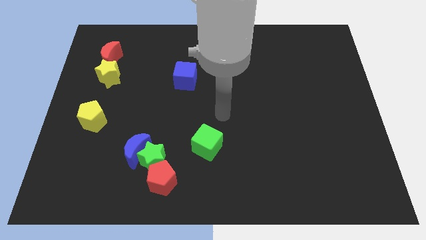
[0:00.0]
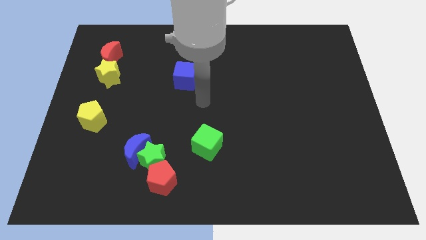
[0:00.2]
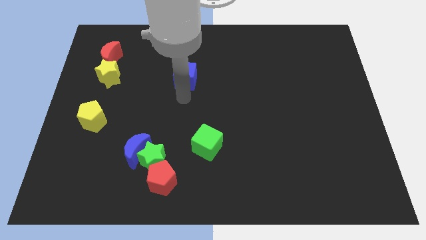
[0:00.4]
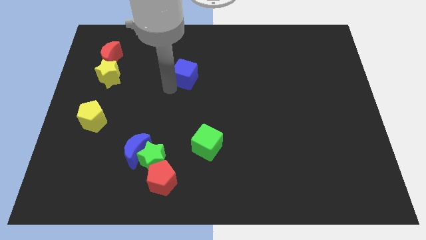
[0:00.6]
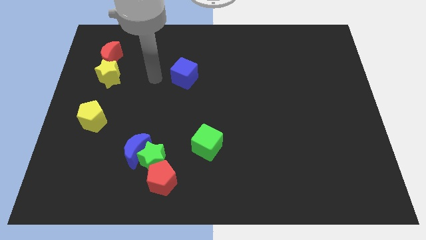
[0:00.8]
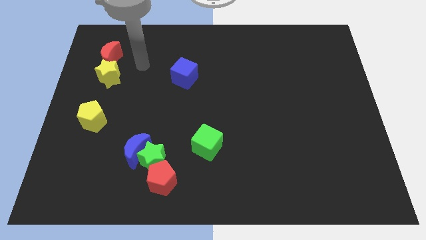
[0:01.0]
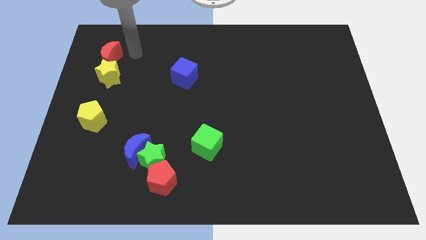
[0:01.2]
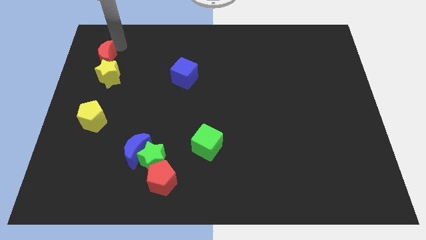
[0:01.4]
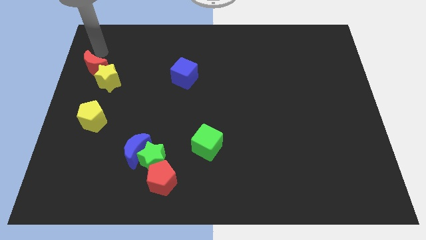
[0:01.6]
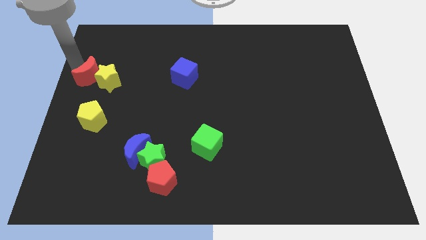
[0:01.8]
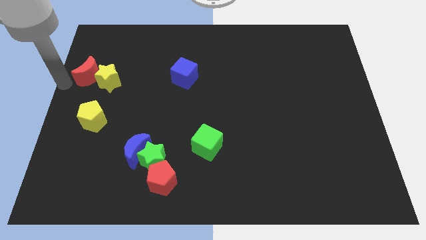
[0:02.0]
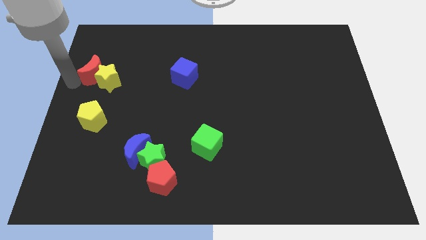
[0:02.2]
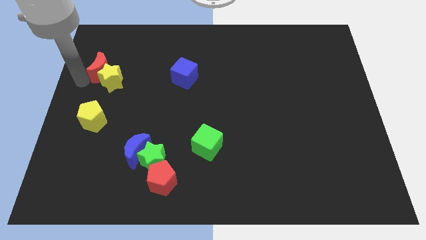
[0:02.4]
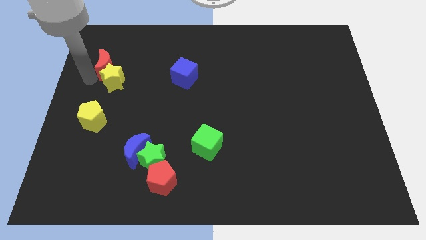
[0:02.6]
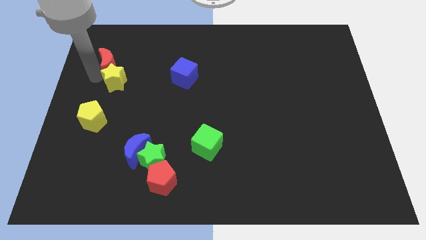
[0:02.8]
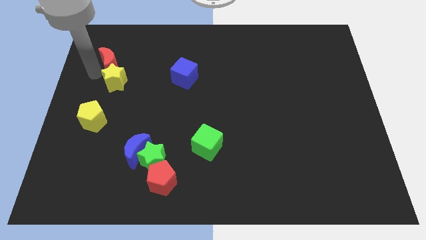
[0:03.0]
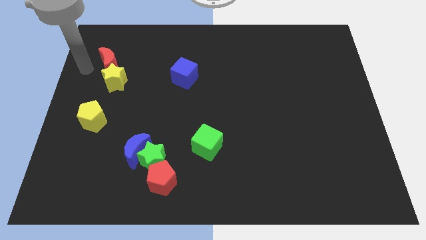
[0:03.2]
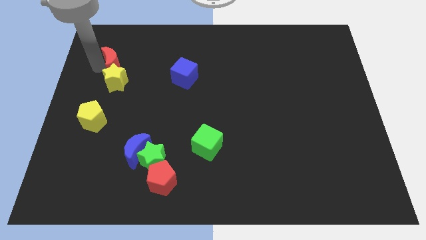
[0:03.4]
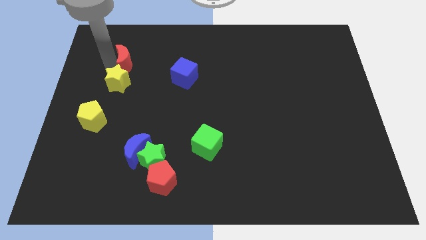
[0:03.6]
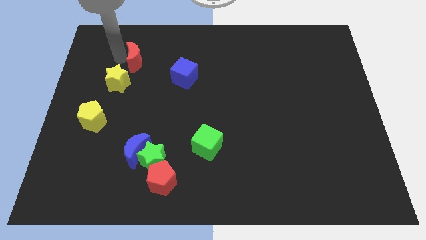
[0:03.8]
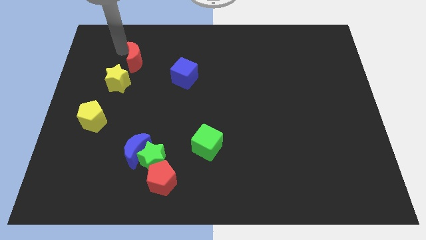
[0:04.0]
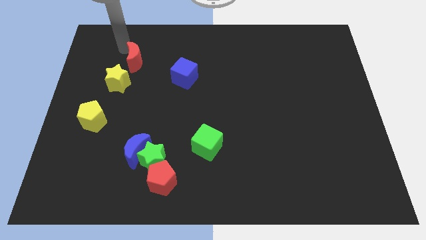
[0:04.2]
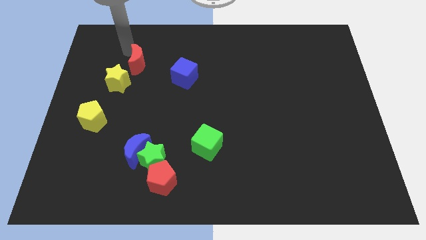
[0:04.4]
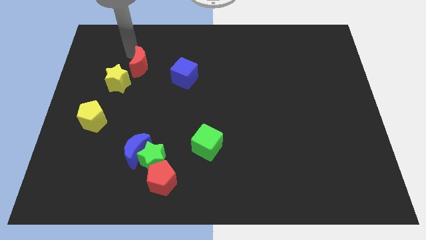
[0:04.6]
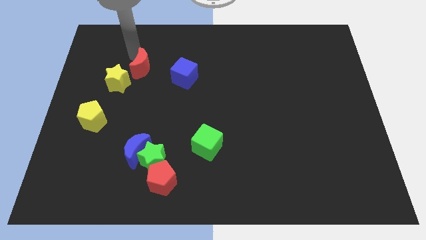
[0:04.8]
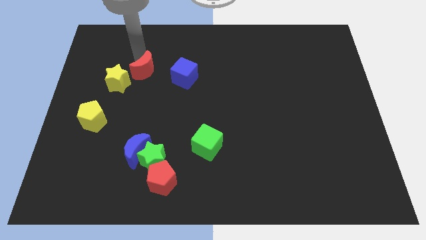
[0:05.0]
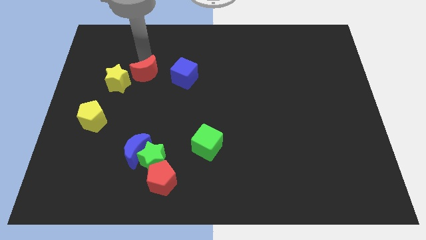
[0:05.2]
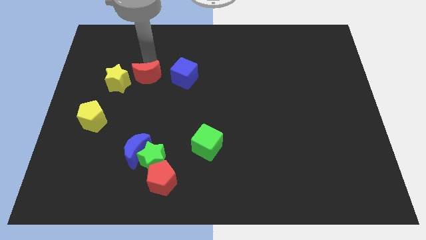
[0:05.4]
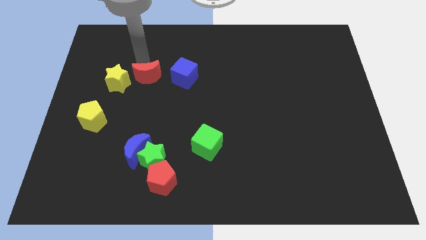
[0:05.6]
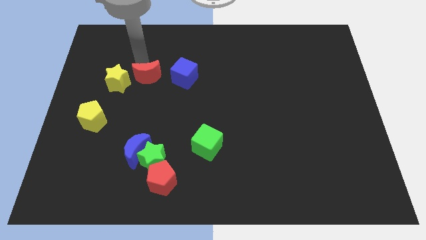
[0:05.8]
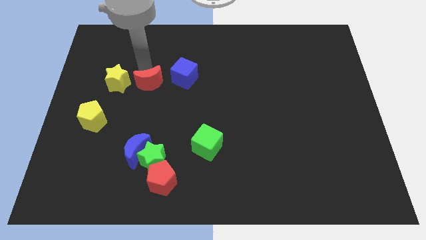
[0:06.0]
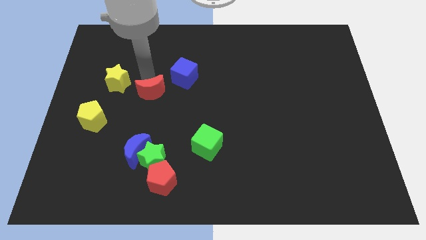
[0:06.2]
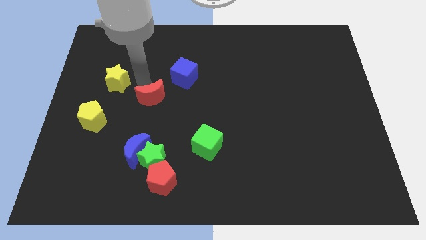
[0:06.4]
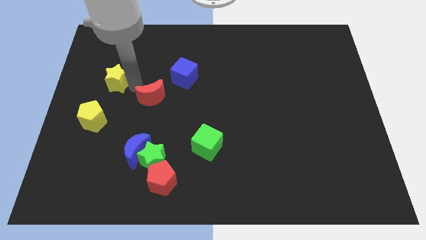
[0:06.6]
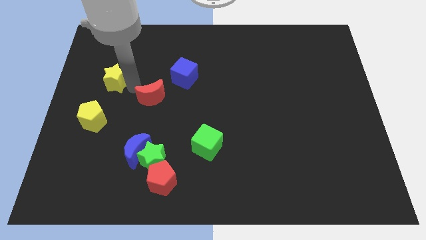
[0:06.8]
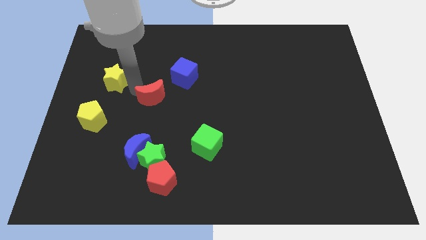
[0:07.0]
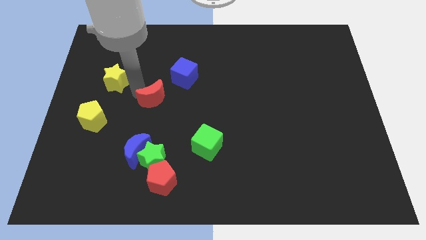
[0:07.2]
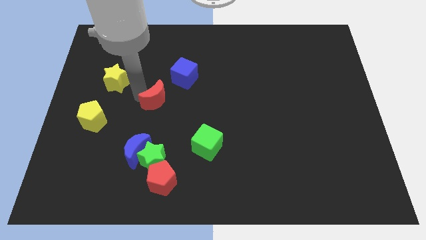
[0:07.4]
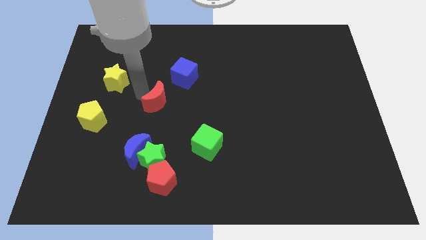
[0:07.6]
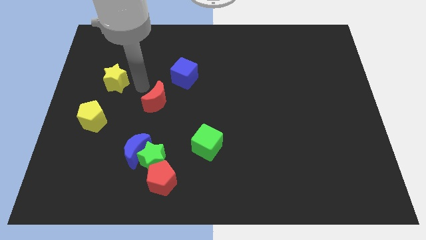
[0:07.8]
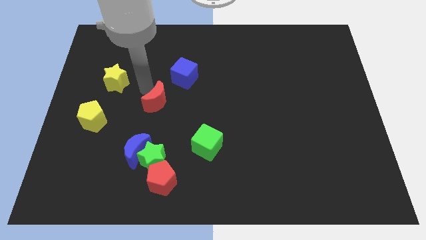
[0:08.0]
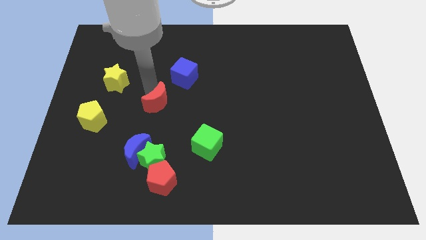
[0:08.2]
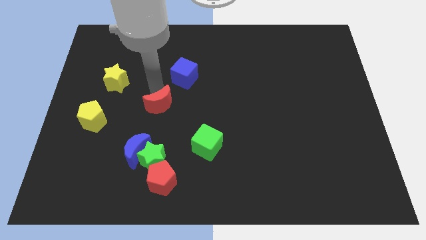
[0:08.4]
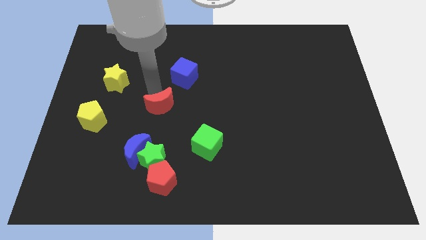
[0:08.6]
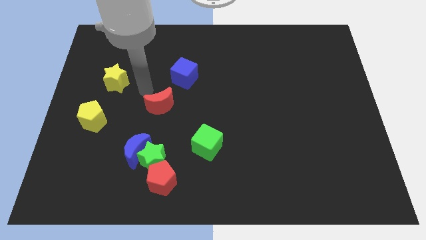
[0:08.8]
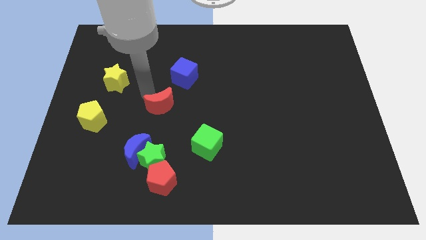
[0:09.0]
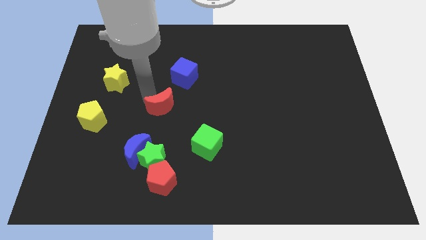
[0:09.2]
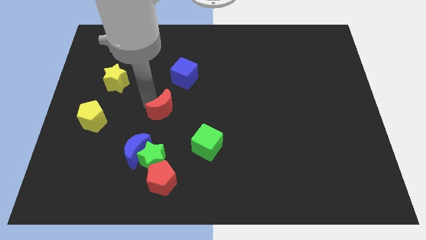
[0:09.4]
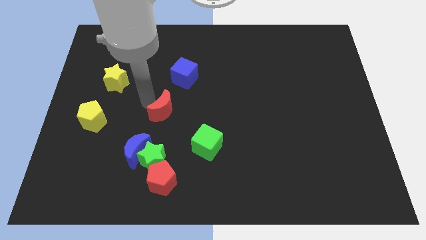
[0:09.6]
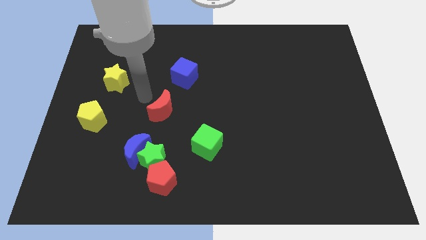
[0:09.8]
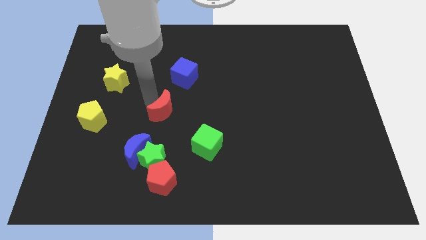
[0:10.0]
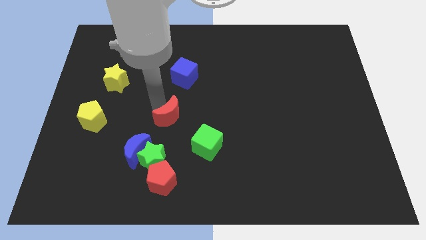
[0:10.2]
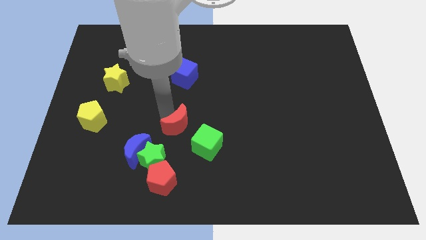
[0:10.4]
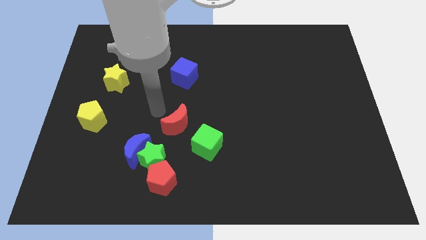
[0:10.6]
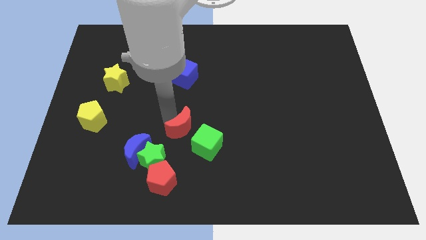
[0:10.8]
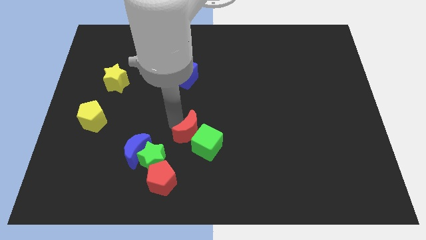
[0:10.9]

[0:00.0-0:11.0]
slide the red moon next to the green cube

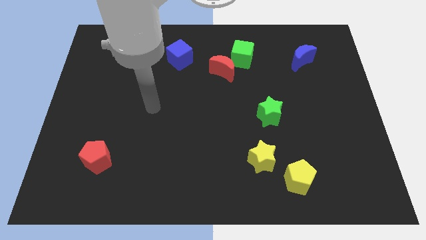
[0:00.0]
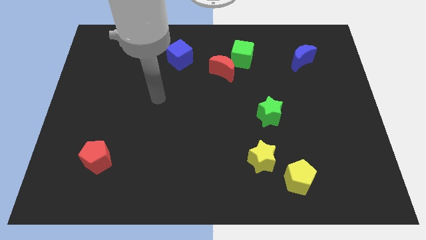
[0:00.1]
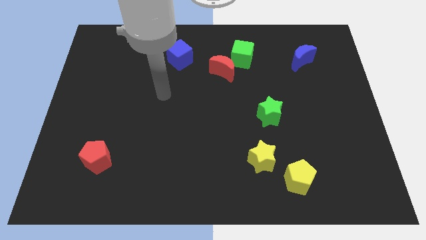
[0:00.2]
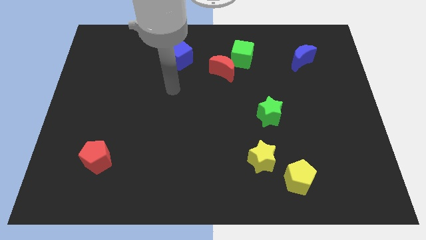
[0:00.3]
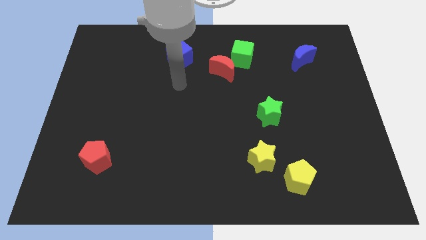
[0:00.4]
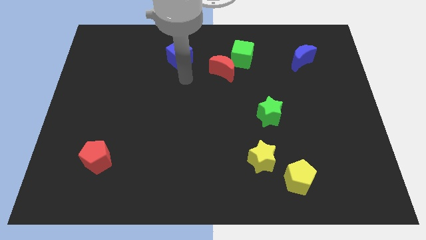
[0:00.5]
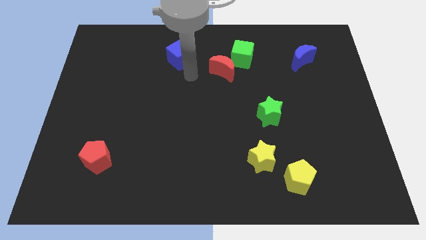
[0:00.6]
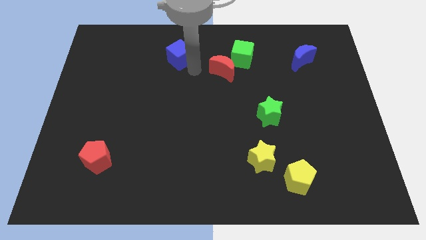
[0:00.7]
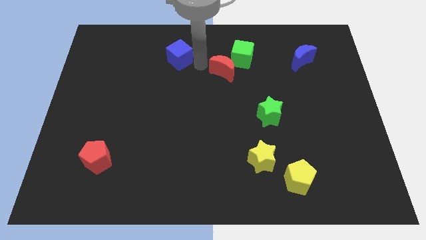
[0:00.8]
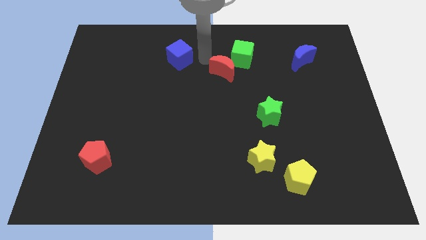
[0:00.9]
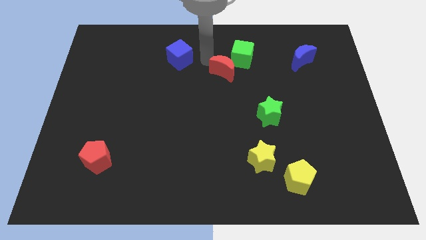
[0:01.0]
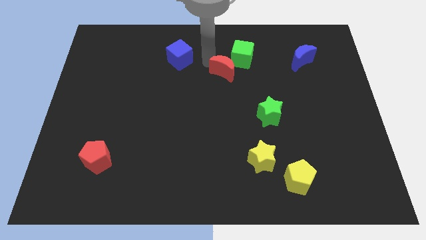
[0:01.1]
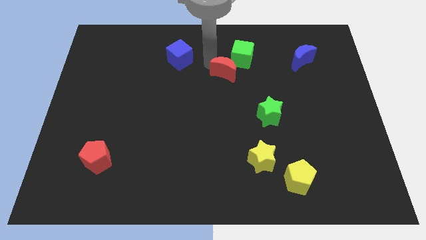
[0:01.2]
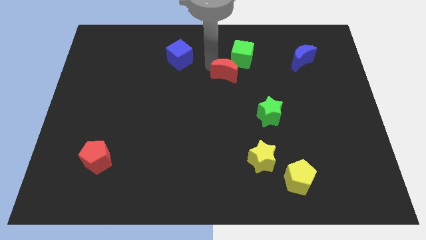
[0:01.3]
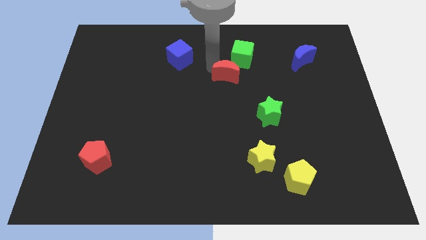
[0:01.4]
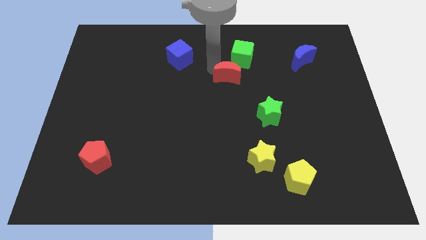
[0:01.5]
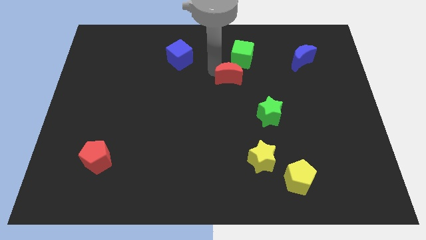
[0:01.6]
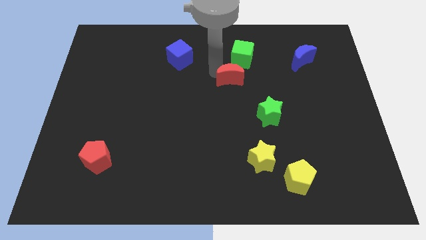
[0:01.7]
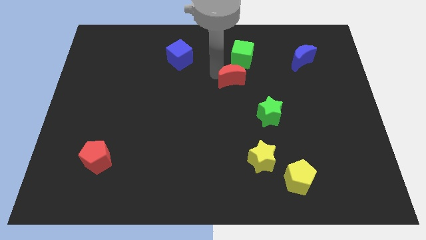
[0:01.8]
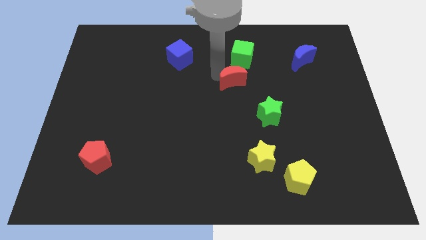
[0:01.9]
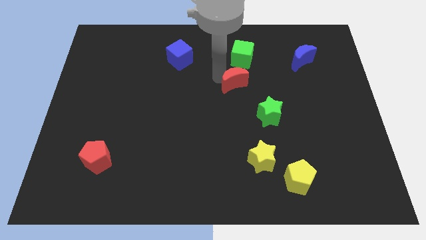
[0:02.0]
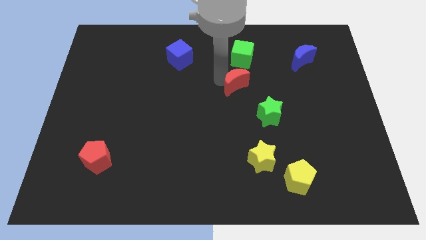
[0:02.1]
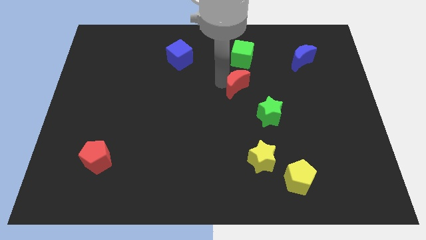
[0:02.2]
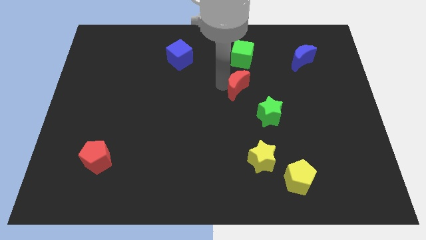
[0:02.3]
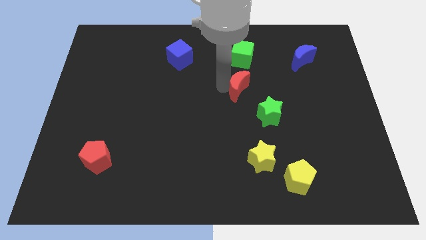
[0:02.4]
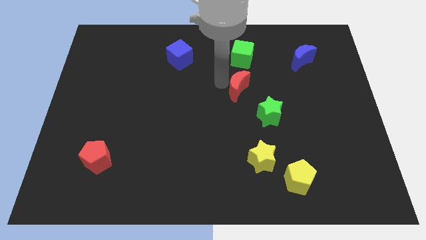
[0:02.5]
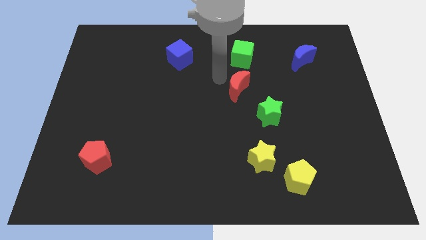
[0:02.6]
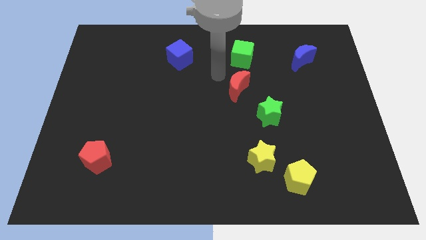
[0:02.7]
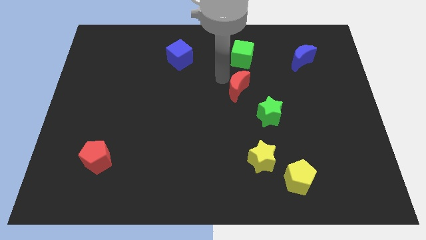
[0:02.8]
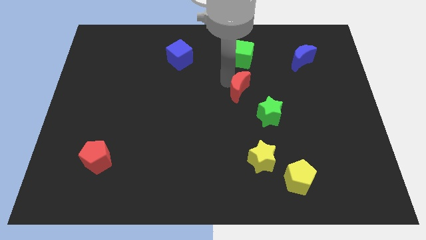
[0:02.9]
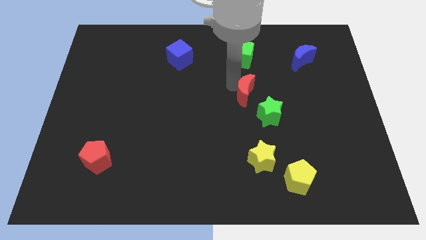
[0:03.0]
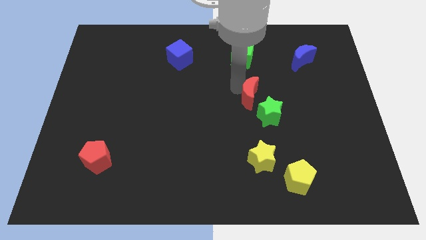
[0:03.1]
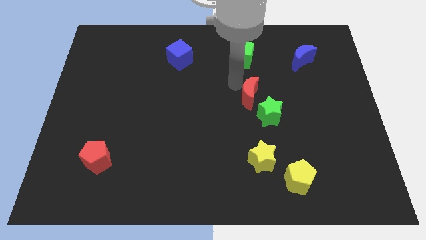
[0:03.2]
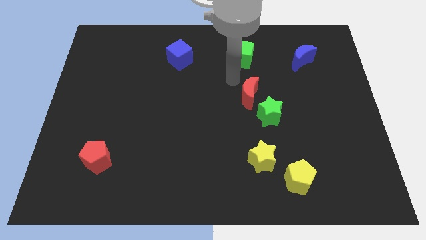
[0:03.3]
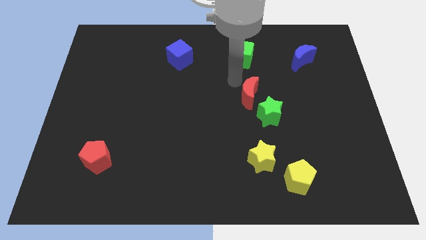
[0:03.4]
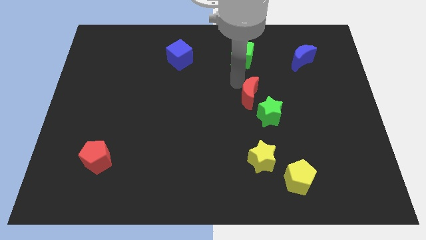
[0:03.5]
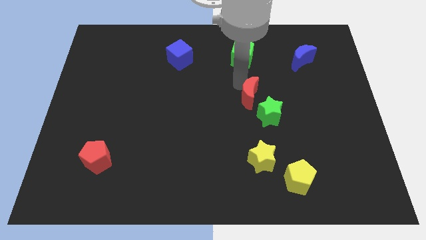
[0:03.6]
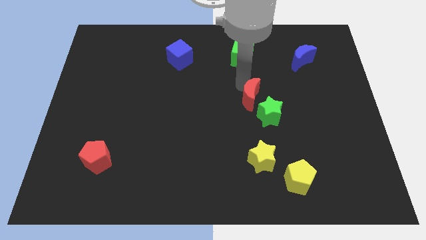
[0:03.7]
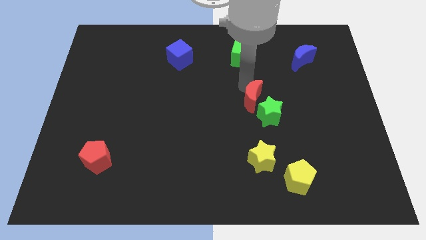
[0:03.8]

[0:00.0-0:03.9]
move the red moon next to the green star
